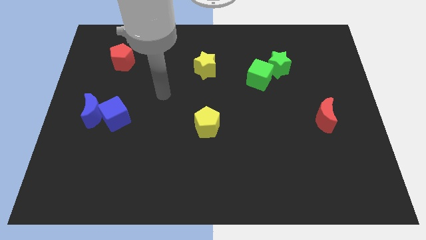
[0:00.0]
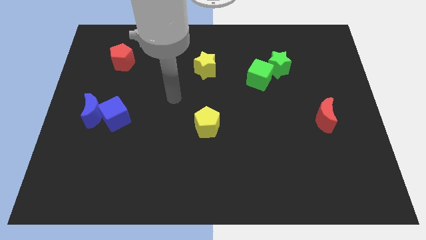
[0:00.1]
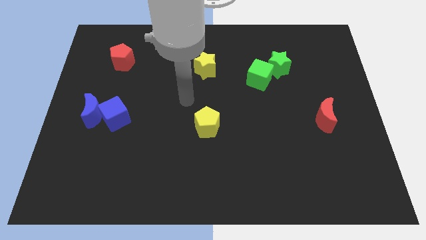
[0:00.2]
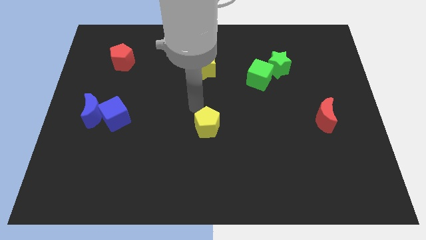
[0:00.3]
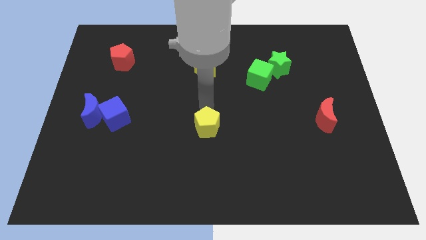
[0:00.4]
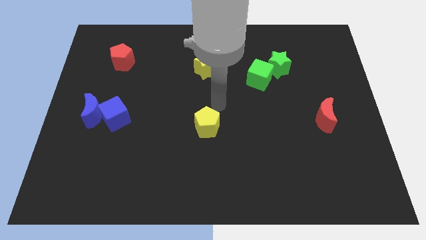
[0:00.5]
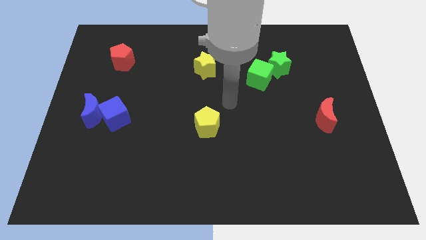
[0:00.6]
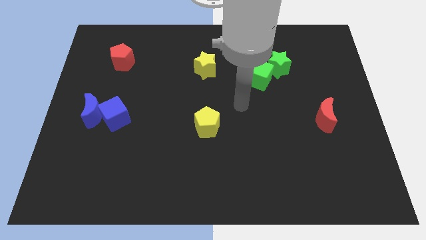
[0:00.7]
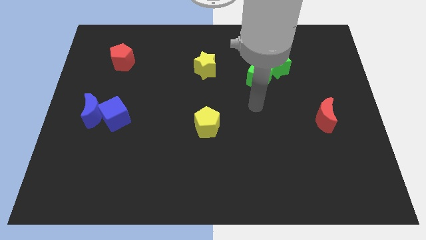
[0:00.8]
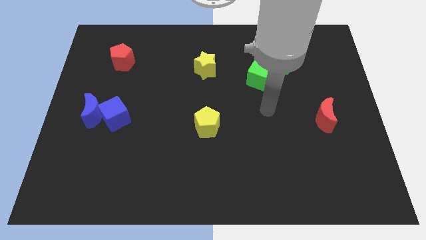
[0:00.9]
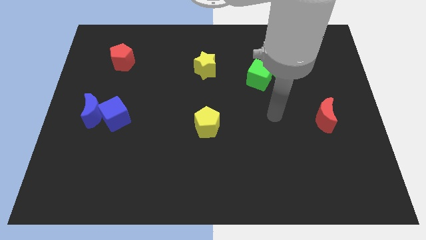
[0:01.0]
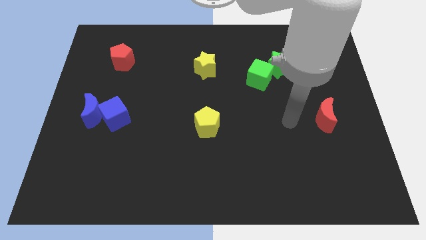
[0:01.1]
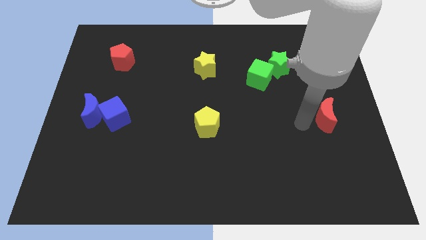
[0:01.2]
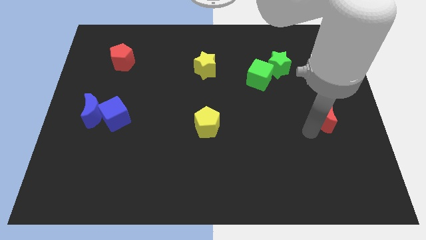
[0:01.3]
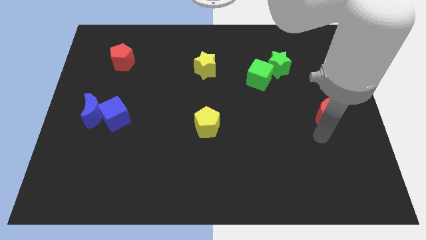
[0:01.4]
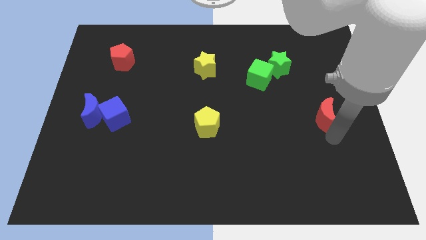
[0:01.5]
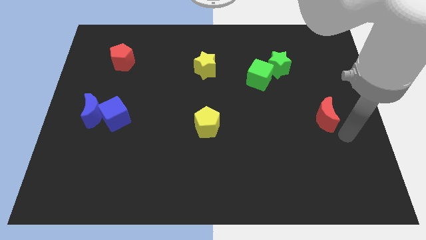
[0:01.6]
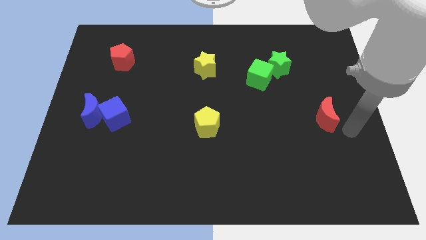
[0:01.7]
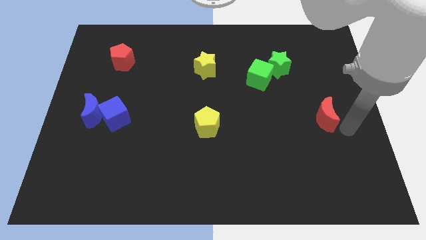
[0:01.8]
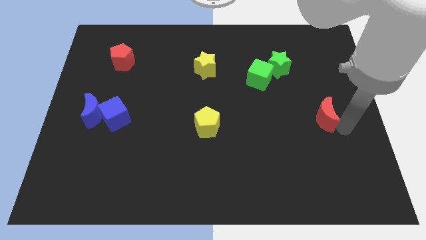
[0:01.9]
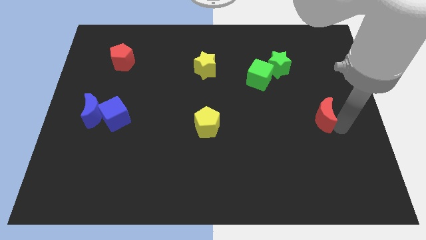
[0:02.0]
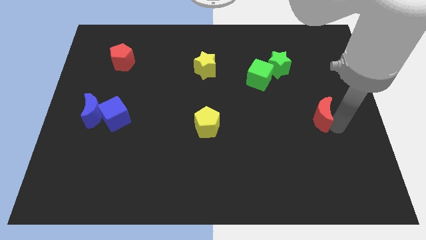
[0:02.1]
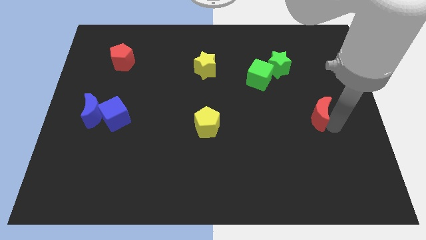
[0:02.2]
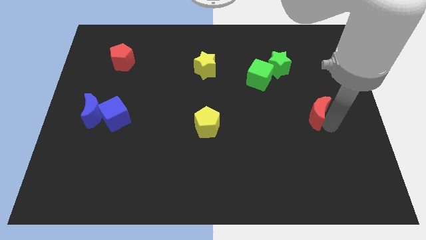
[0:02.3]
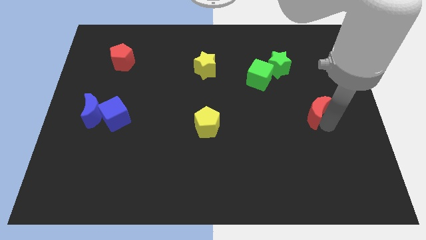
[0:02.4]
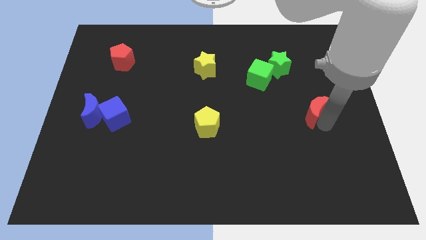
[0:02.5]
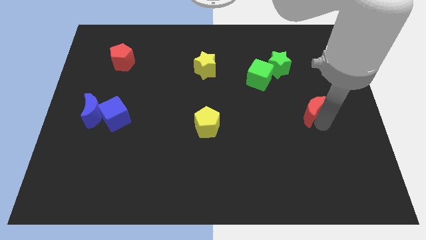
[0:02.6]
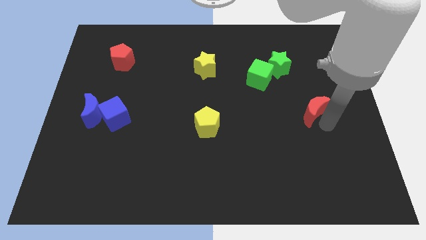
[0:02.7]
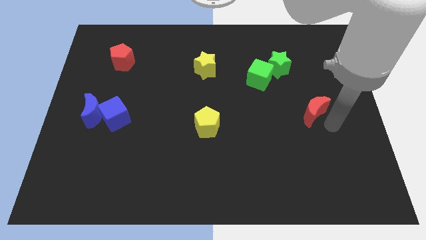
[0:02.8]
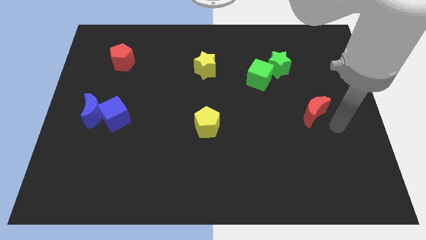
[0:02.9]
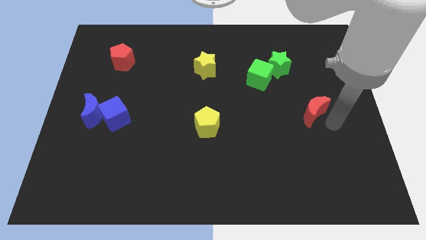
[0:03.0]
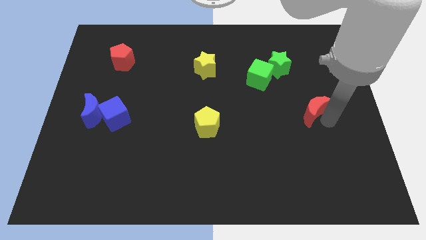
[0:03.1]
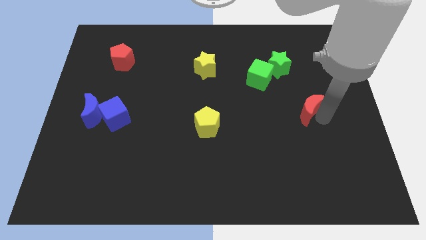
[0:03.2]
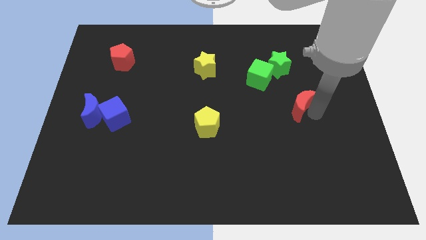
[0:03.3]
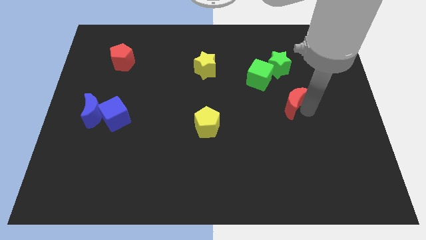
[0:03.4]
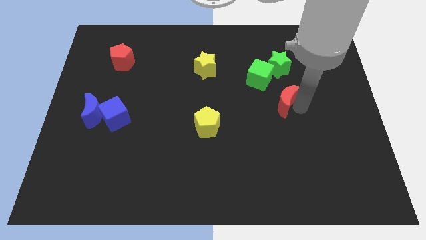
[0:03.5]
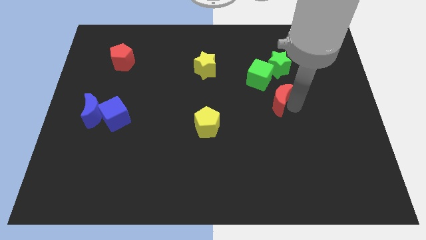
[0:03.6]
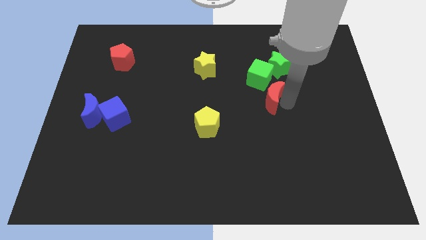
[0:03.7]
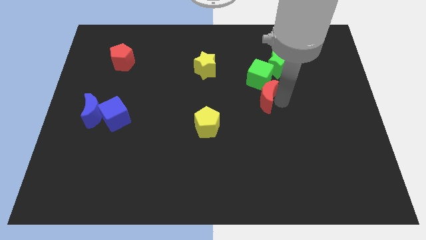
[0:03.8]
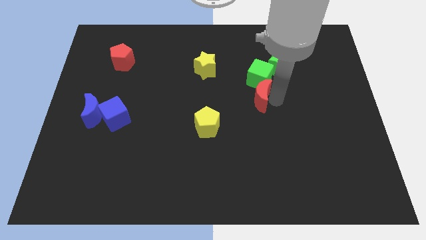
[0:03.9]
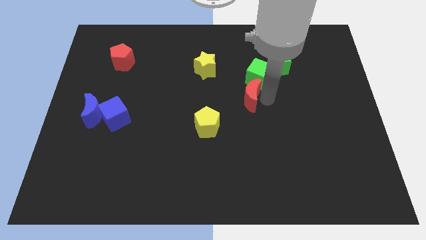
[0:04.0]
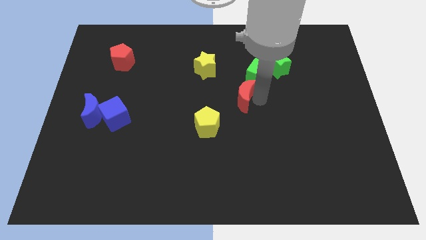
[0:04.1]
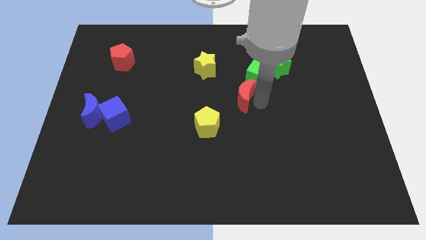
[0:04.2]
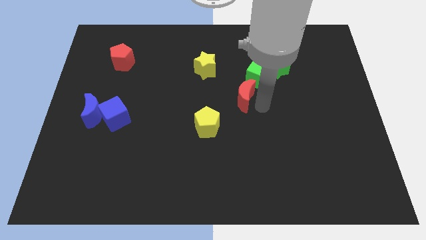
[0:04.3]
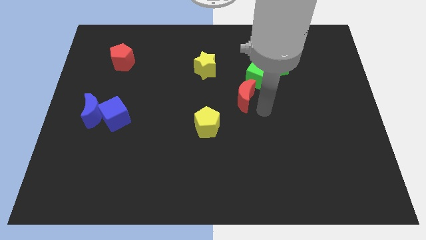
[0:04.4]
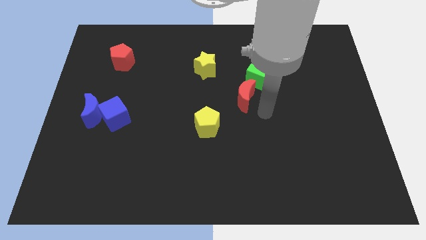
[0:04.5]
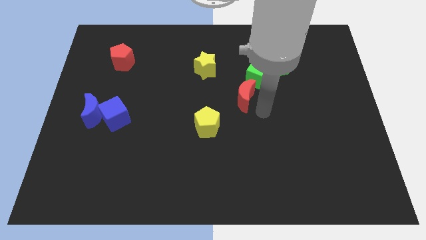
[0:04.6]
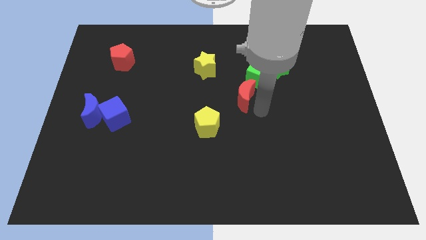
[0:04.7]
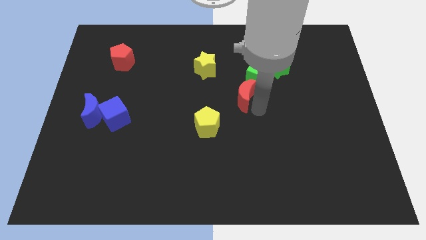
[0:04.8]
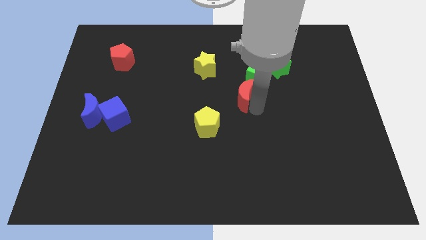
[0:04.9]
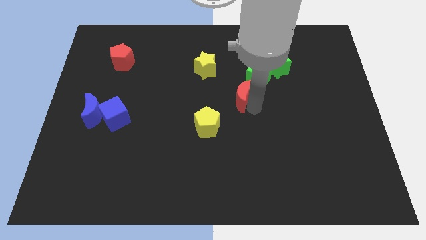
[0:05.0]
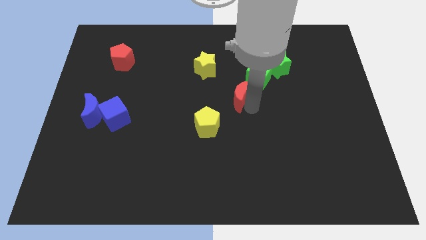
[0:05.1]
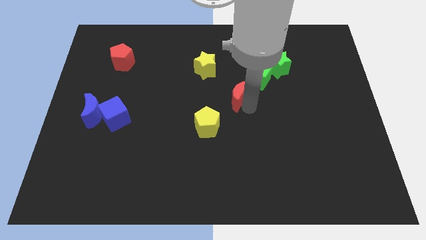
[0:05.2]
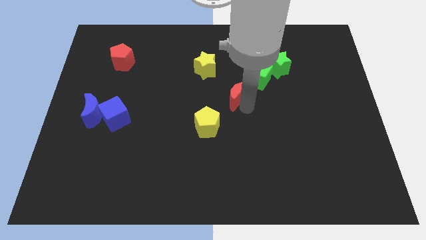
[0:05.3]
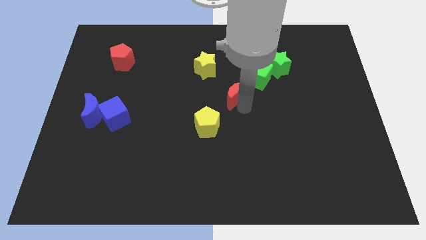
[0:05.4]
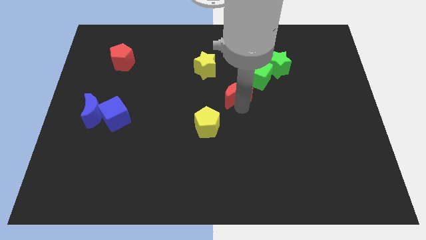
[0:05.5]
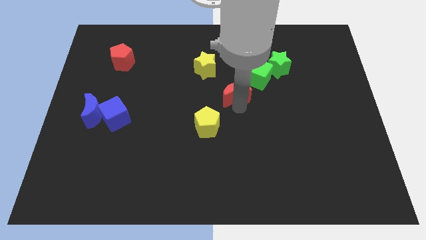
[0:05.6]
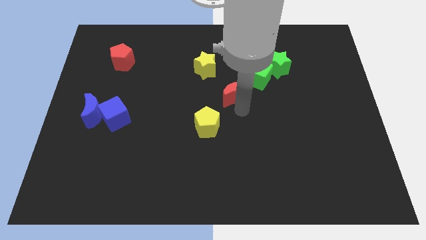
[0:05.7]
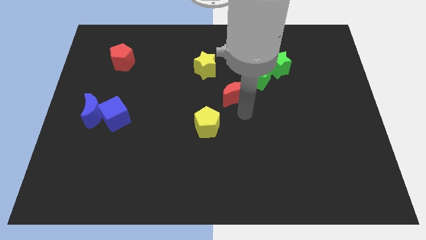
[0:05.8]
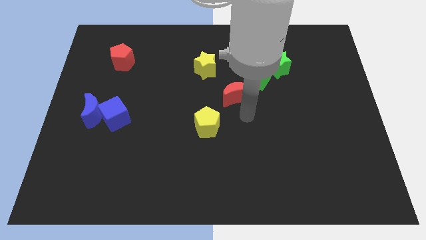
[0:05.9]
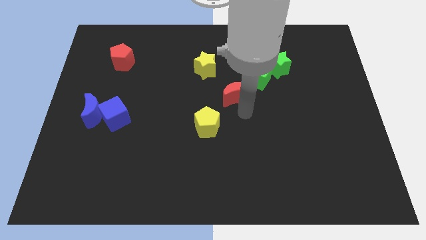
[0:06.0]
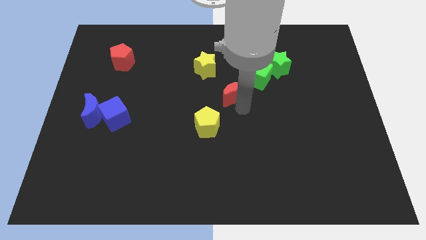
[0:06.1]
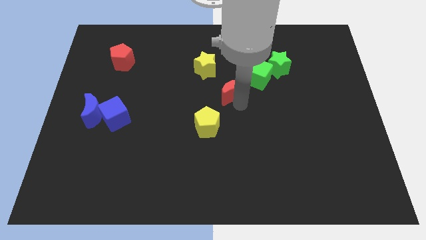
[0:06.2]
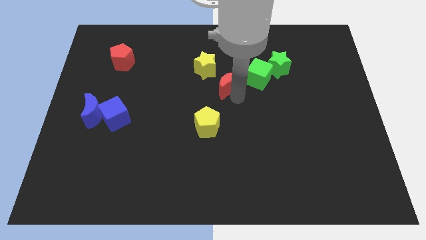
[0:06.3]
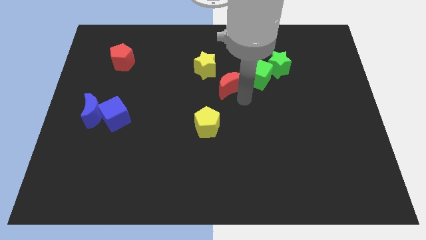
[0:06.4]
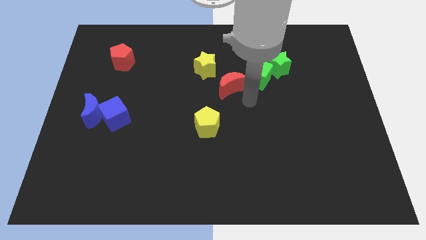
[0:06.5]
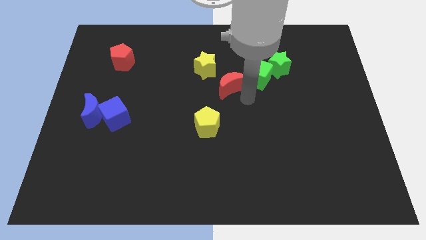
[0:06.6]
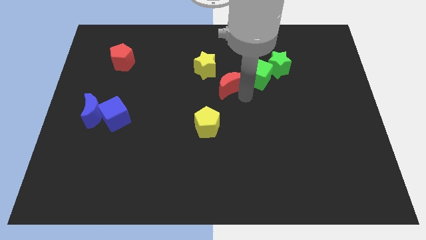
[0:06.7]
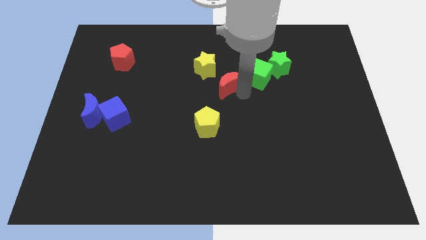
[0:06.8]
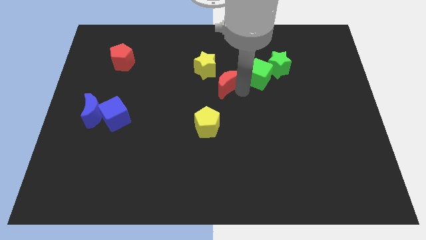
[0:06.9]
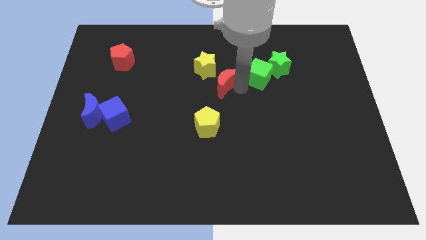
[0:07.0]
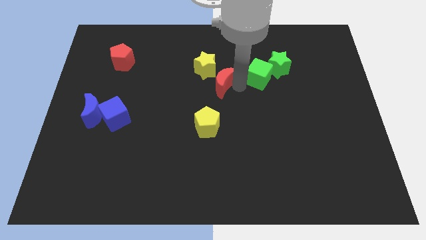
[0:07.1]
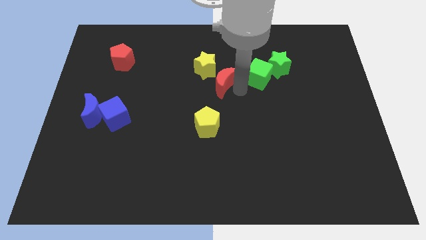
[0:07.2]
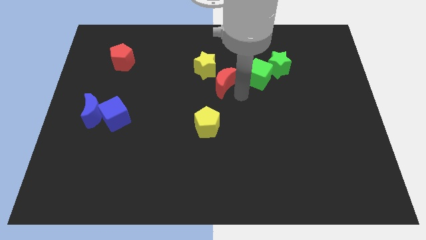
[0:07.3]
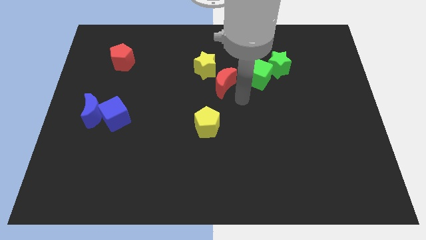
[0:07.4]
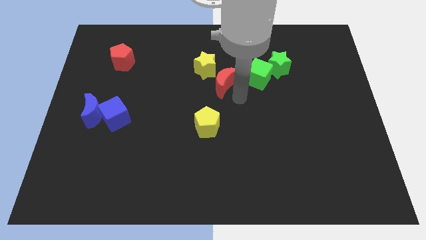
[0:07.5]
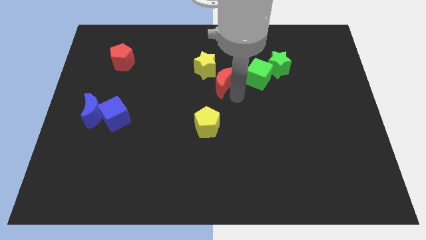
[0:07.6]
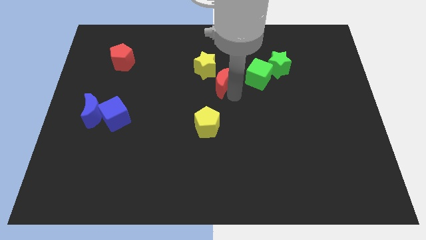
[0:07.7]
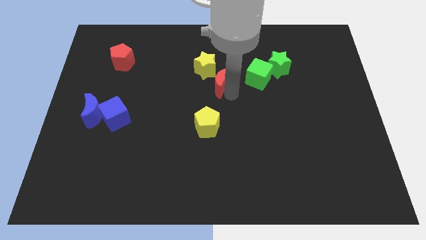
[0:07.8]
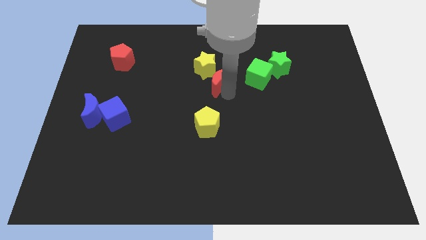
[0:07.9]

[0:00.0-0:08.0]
push the red moon towards the yellow star
